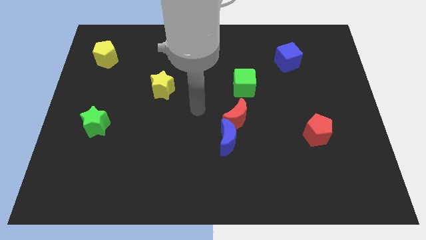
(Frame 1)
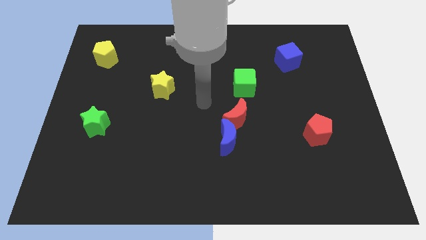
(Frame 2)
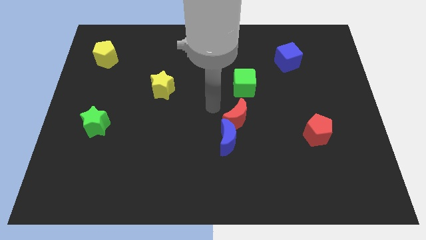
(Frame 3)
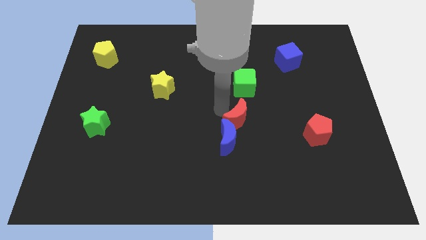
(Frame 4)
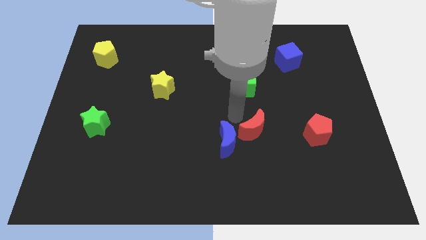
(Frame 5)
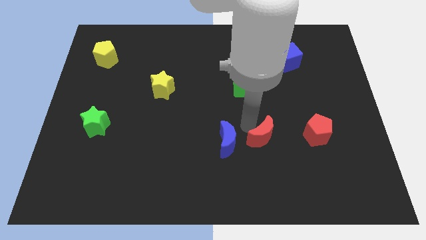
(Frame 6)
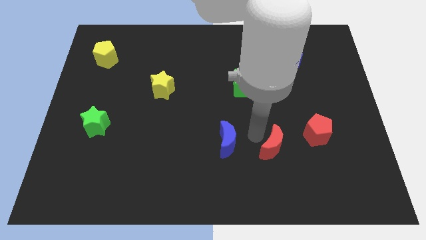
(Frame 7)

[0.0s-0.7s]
pull the blue moon apart from the red moon

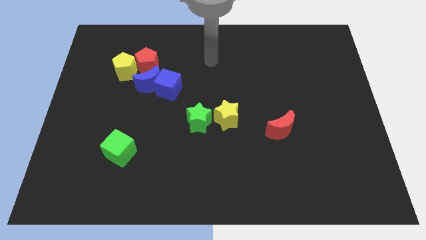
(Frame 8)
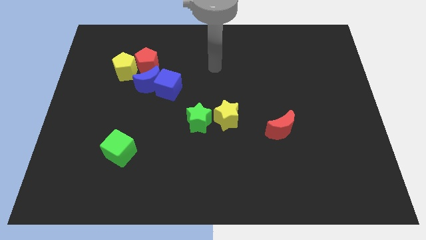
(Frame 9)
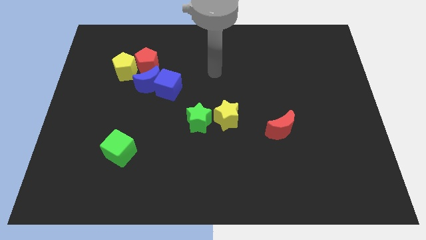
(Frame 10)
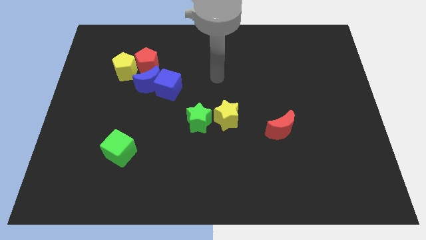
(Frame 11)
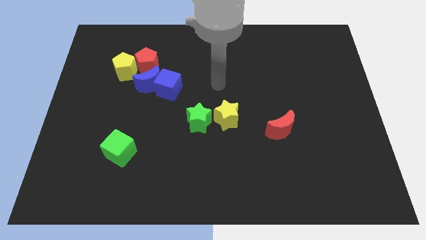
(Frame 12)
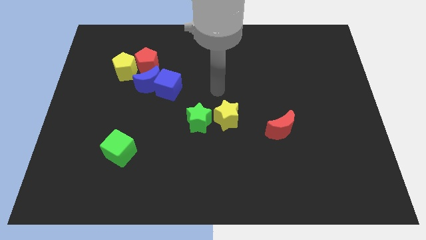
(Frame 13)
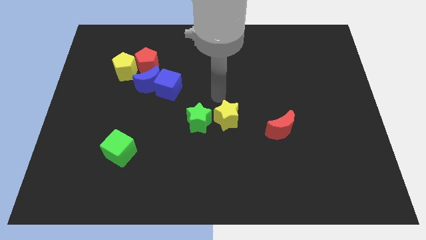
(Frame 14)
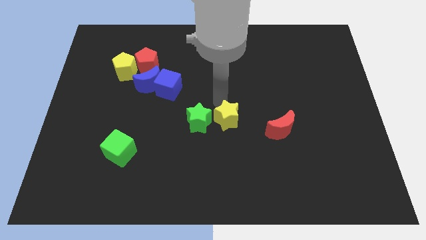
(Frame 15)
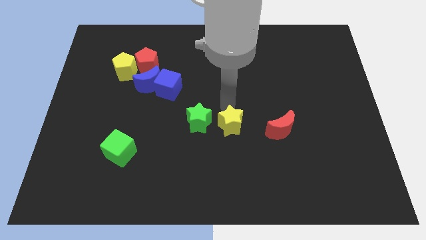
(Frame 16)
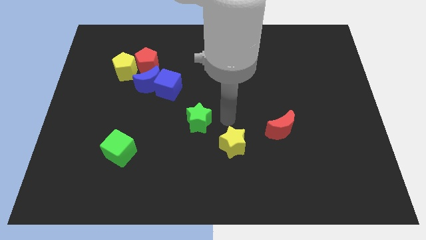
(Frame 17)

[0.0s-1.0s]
separate the green star from the yellow star

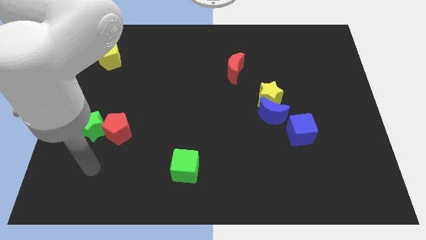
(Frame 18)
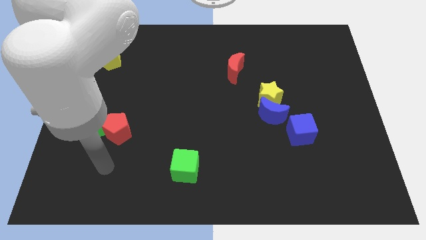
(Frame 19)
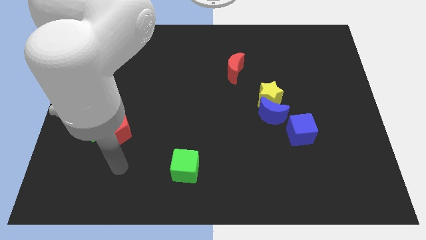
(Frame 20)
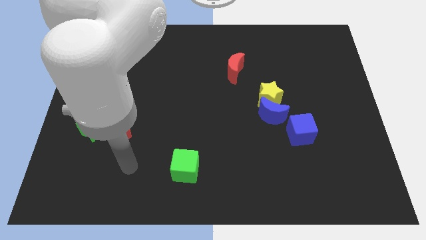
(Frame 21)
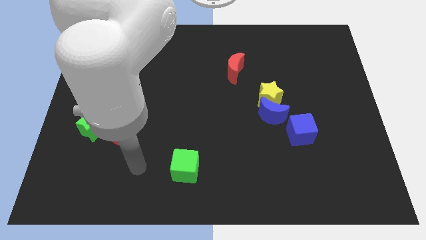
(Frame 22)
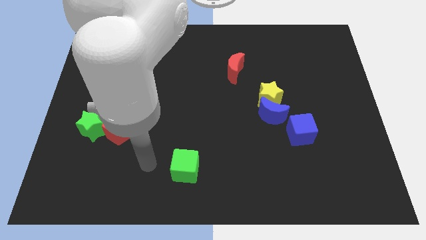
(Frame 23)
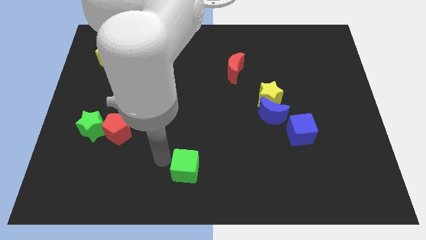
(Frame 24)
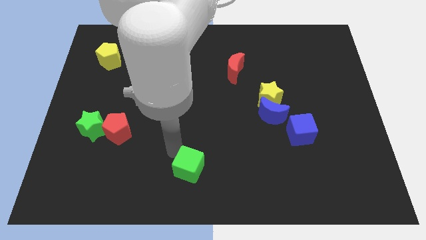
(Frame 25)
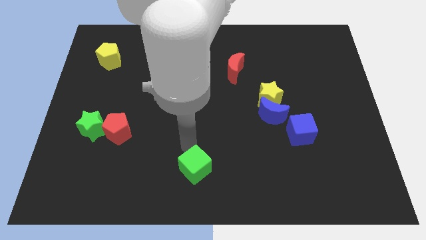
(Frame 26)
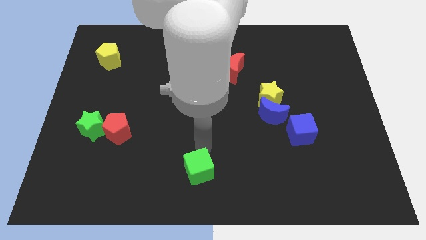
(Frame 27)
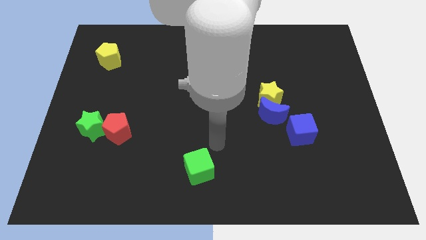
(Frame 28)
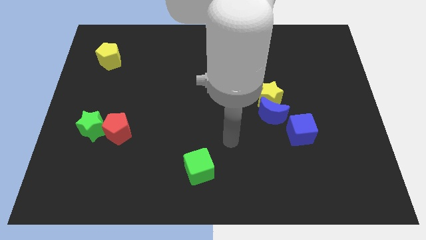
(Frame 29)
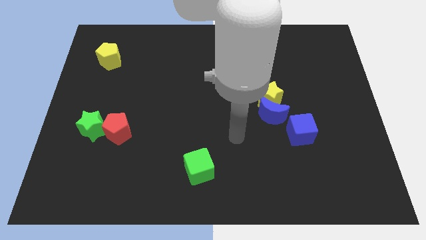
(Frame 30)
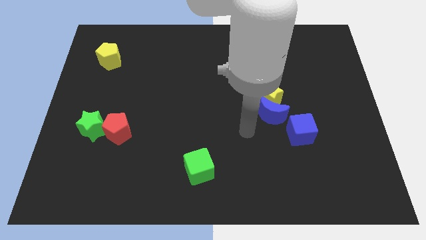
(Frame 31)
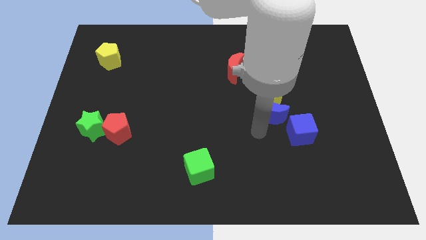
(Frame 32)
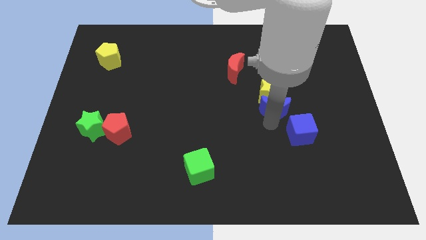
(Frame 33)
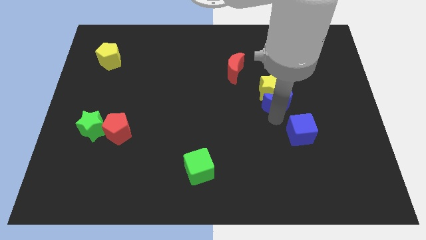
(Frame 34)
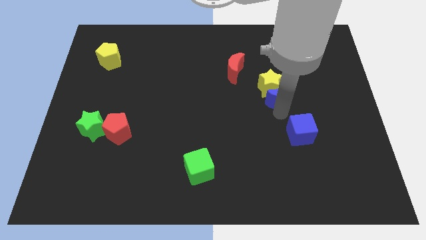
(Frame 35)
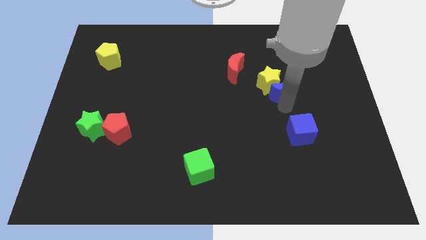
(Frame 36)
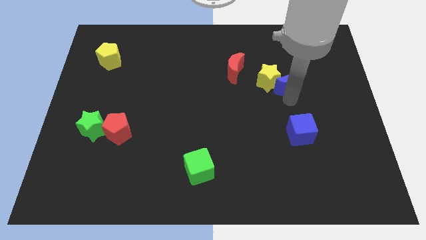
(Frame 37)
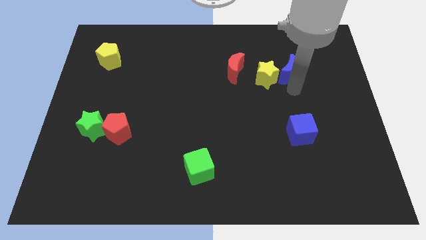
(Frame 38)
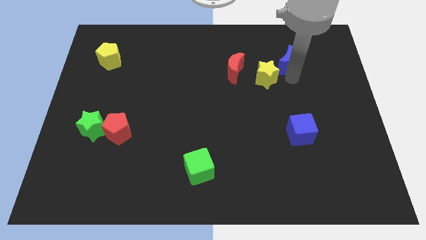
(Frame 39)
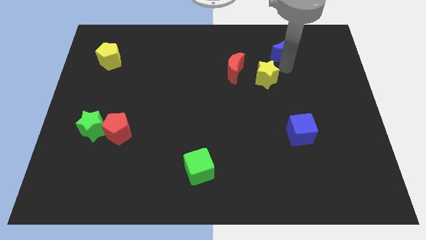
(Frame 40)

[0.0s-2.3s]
move the yellow star away from the blue moon

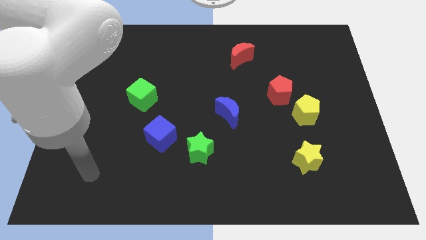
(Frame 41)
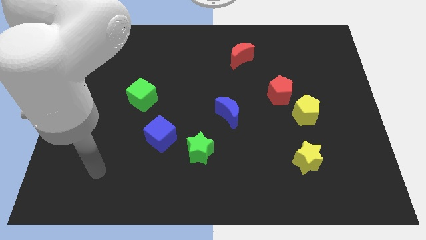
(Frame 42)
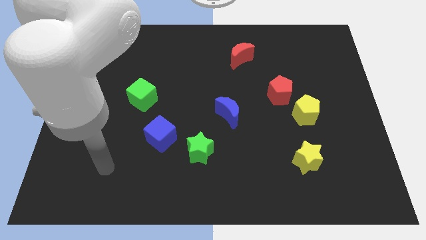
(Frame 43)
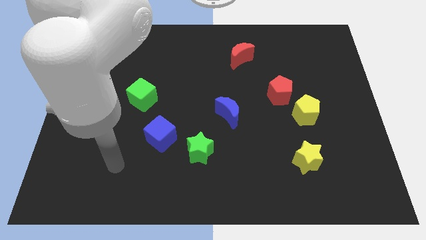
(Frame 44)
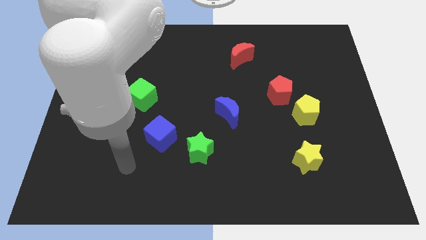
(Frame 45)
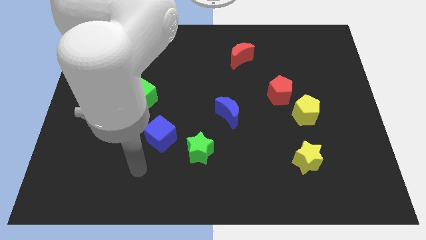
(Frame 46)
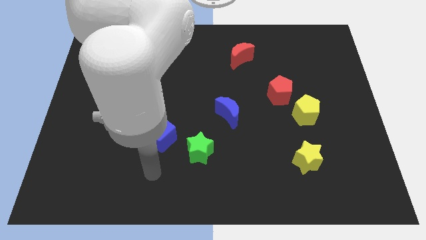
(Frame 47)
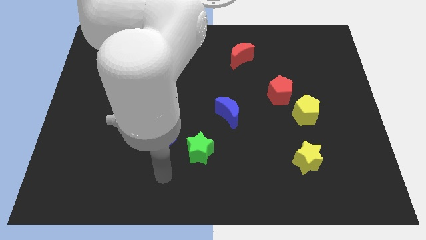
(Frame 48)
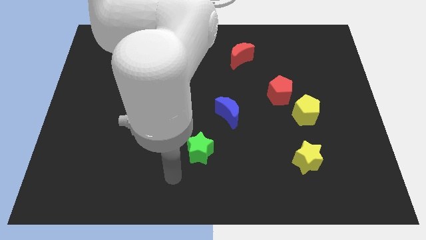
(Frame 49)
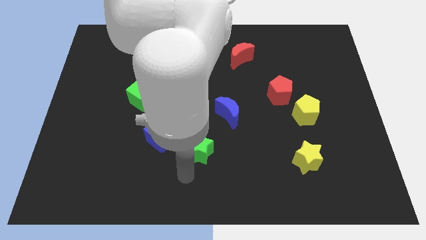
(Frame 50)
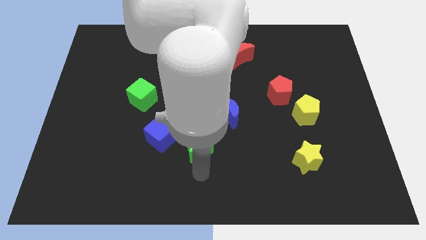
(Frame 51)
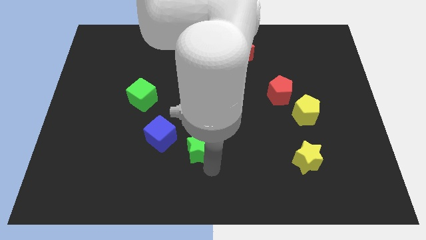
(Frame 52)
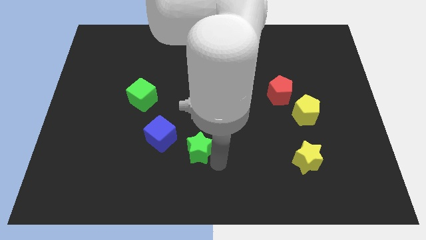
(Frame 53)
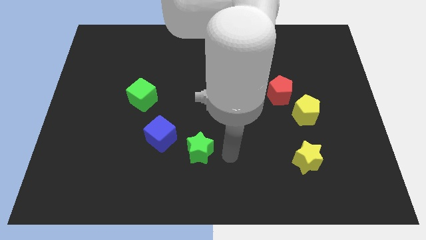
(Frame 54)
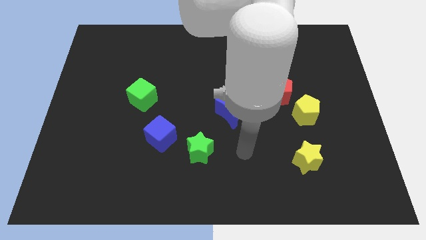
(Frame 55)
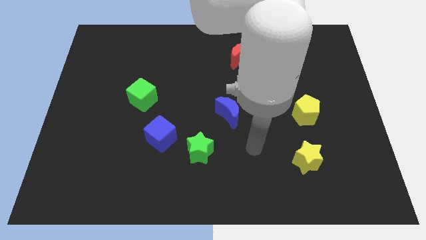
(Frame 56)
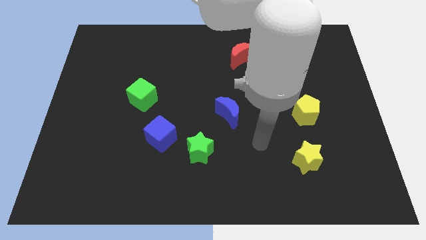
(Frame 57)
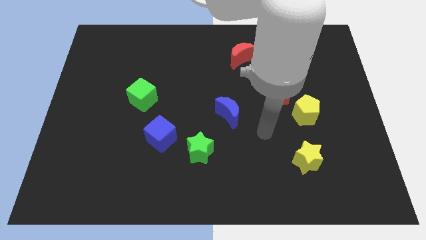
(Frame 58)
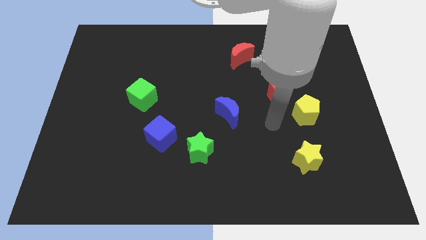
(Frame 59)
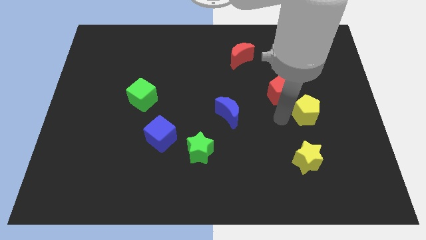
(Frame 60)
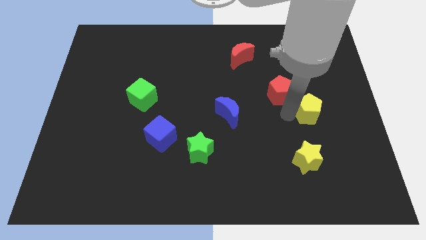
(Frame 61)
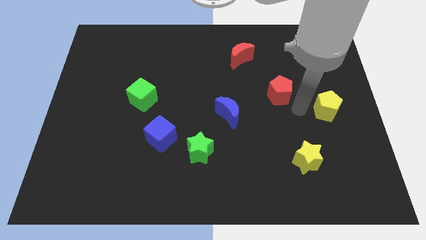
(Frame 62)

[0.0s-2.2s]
separate the red pentagon from the yellow pentagon

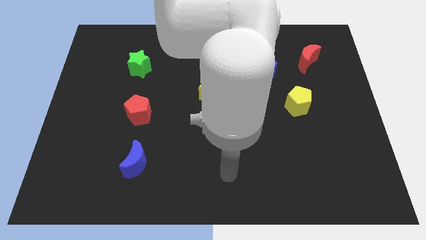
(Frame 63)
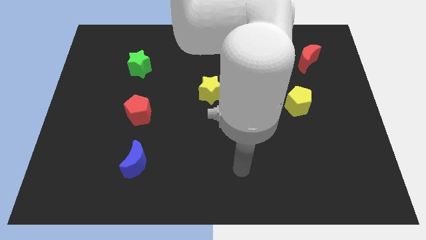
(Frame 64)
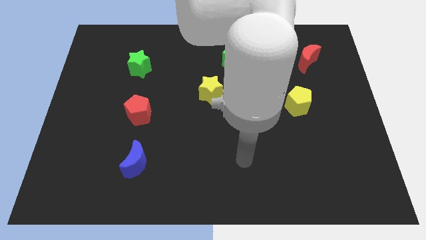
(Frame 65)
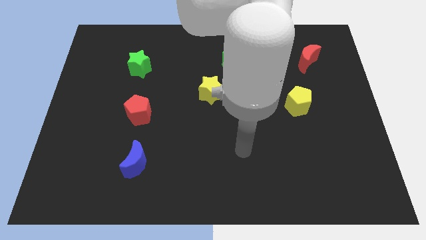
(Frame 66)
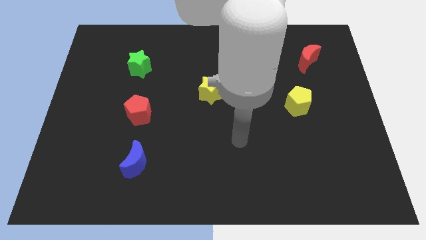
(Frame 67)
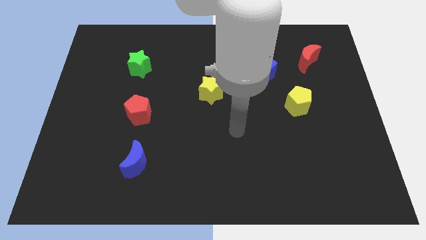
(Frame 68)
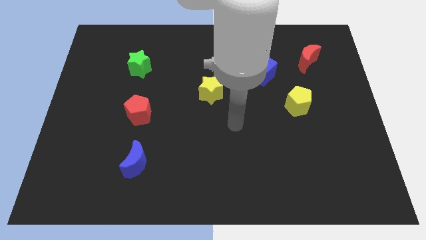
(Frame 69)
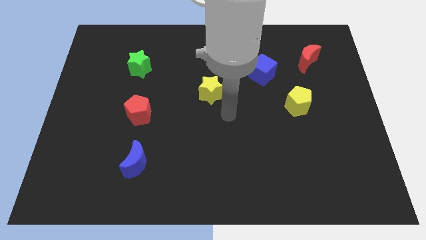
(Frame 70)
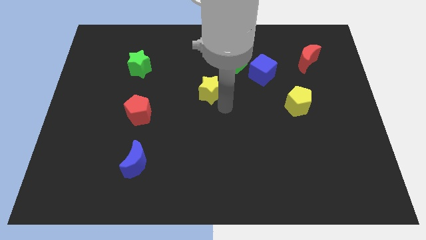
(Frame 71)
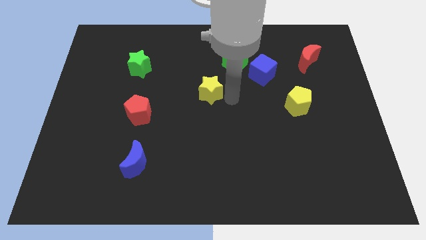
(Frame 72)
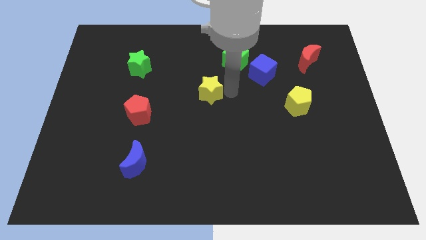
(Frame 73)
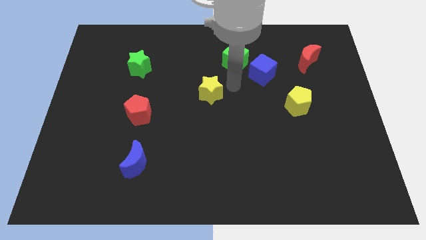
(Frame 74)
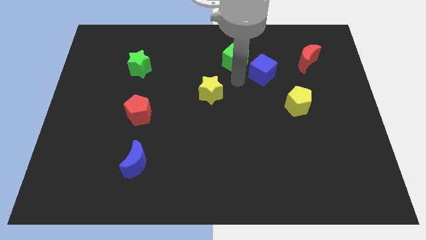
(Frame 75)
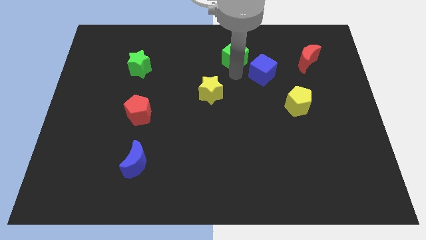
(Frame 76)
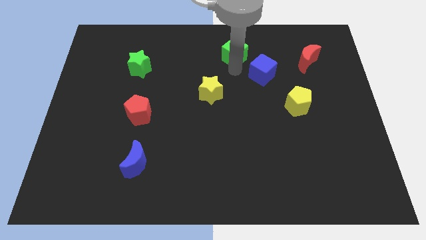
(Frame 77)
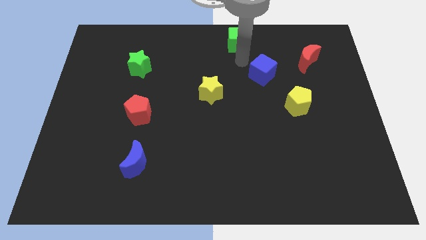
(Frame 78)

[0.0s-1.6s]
pull the blue cube apart from the green cube

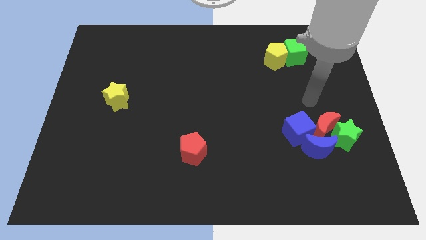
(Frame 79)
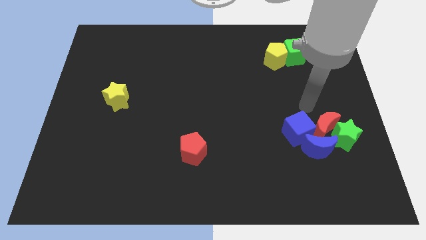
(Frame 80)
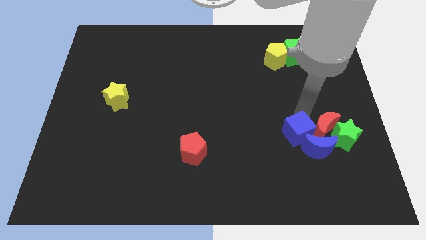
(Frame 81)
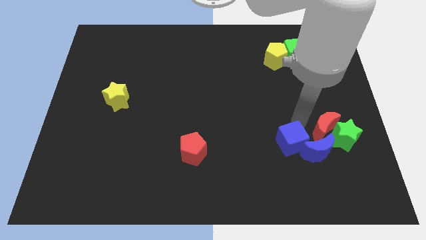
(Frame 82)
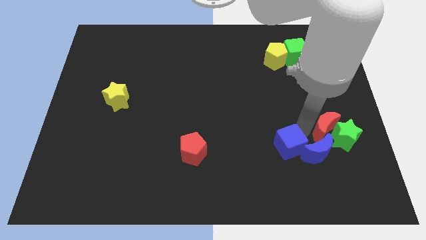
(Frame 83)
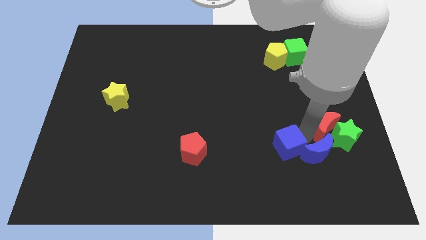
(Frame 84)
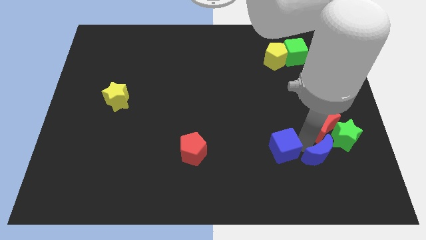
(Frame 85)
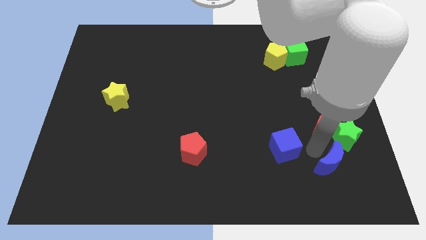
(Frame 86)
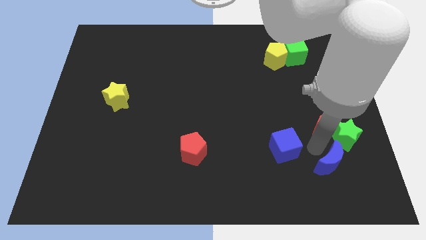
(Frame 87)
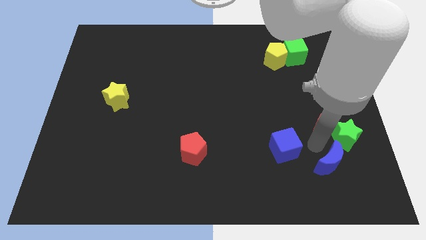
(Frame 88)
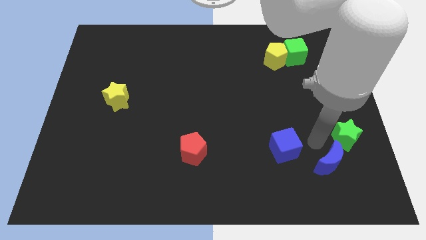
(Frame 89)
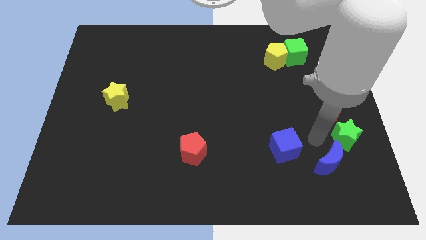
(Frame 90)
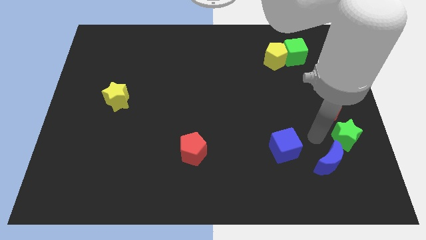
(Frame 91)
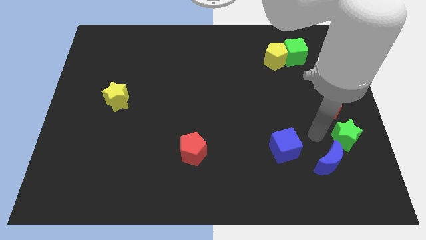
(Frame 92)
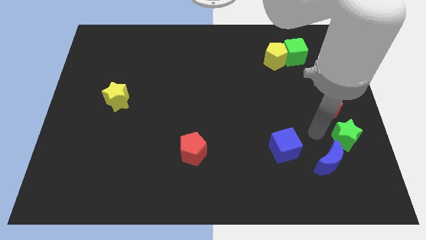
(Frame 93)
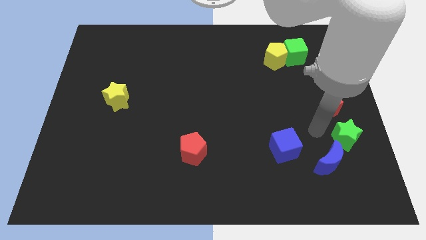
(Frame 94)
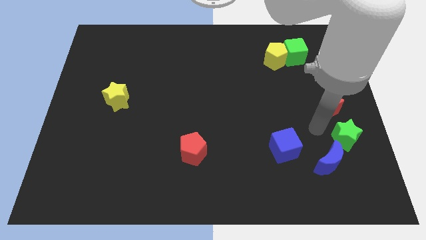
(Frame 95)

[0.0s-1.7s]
move the red moon away from the group of blocks
